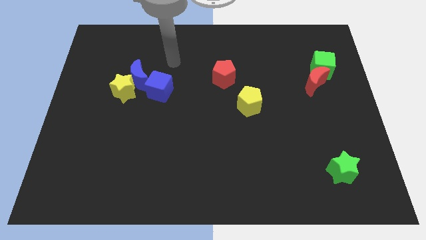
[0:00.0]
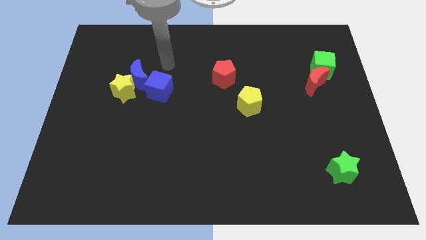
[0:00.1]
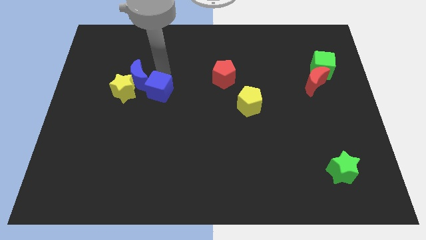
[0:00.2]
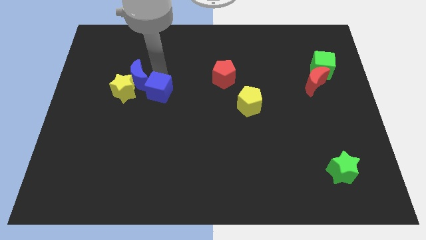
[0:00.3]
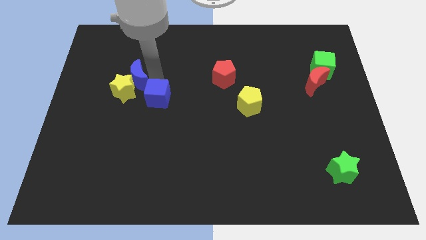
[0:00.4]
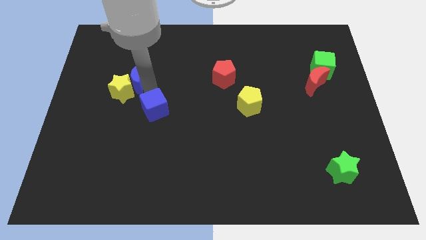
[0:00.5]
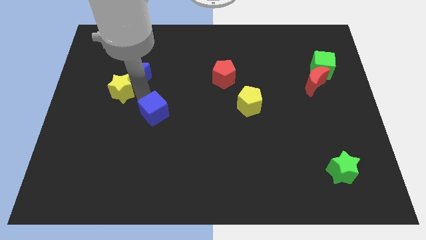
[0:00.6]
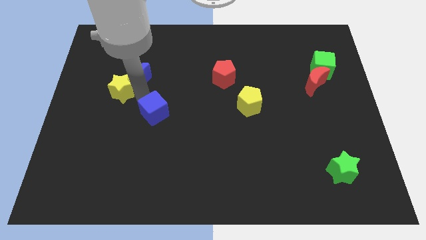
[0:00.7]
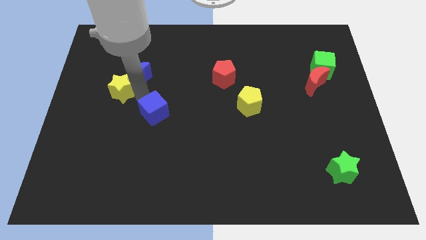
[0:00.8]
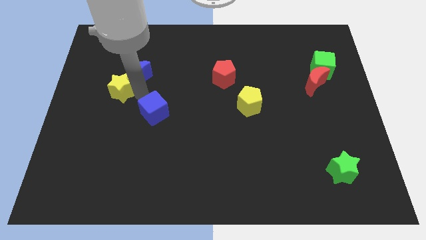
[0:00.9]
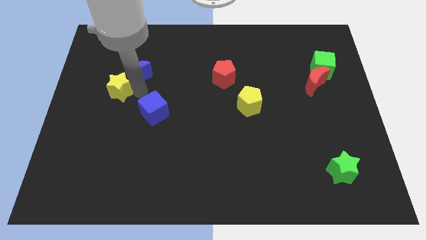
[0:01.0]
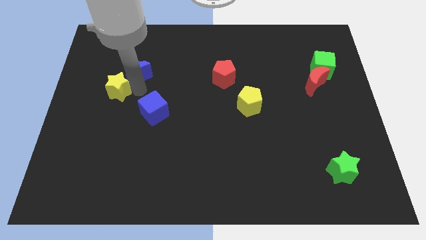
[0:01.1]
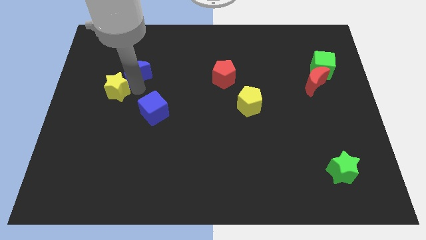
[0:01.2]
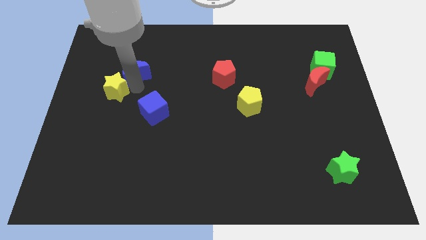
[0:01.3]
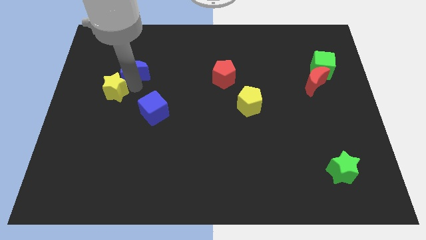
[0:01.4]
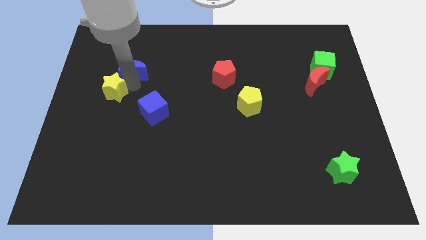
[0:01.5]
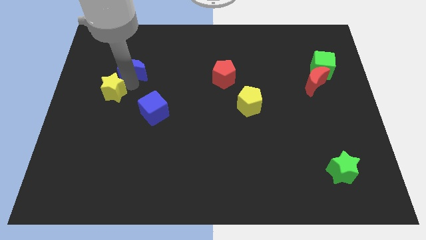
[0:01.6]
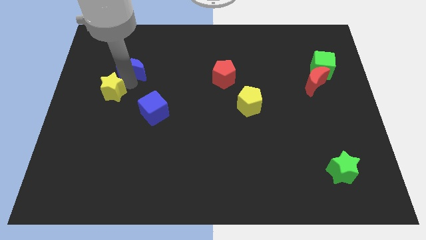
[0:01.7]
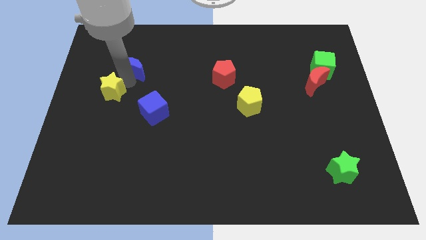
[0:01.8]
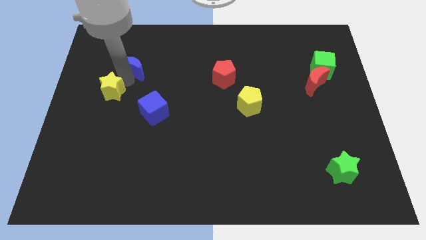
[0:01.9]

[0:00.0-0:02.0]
move the blue moon away from the yellow star and blue cube

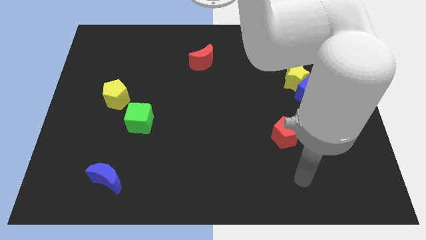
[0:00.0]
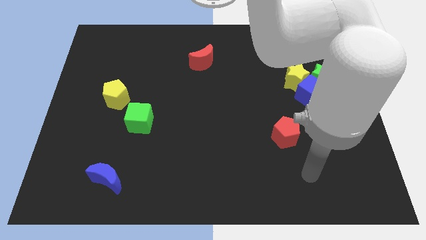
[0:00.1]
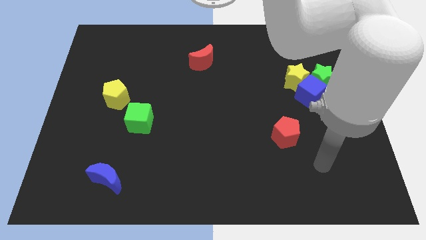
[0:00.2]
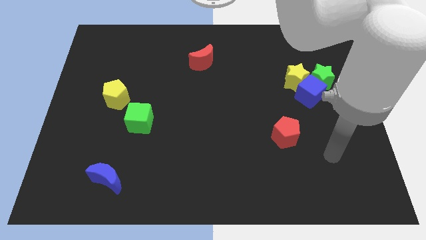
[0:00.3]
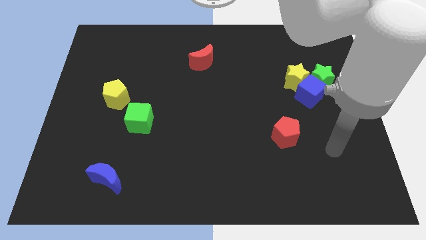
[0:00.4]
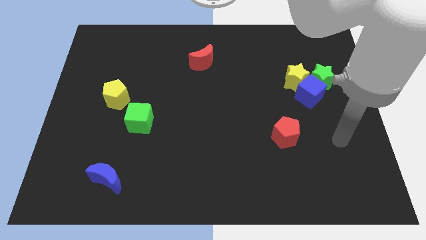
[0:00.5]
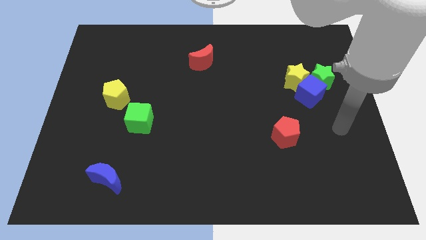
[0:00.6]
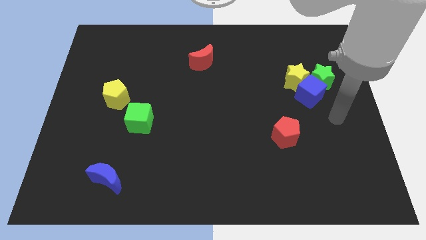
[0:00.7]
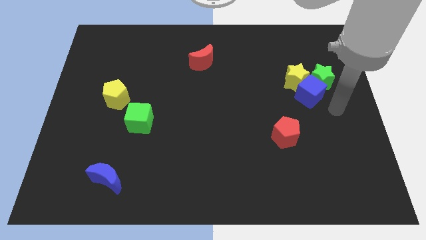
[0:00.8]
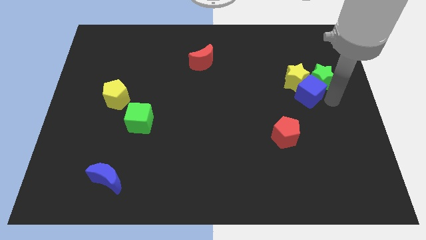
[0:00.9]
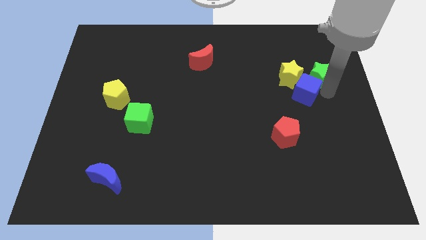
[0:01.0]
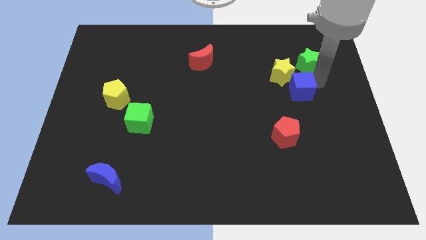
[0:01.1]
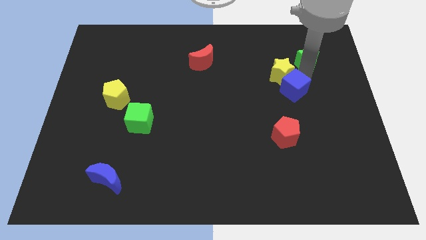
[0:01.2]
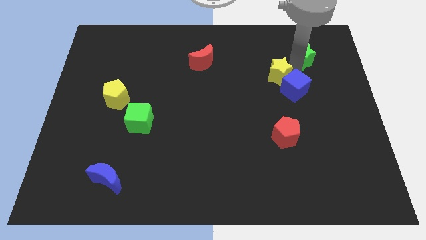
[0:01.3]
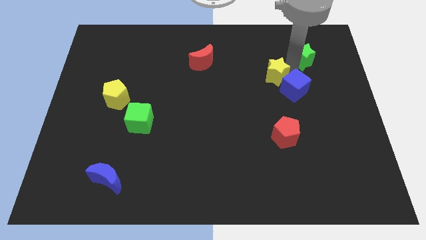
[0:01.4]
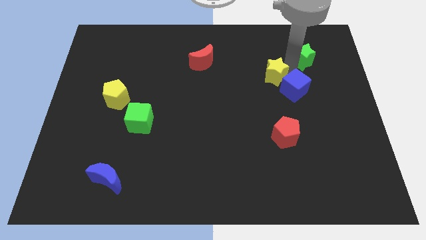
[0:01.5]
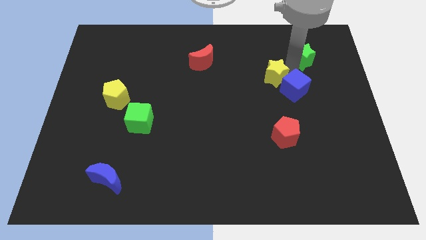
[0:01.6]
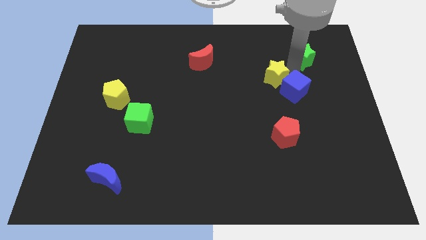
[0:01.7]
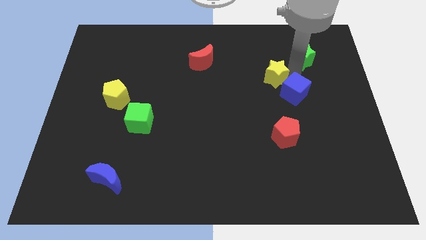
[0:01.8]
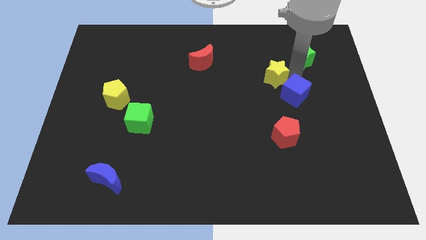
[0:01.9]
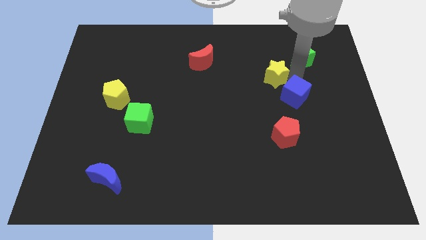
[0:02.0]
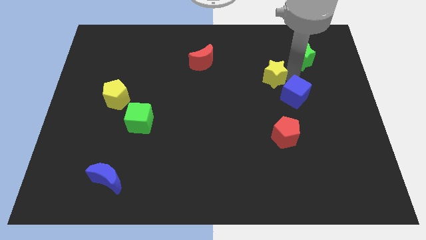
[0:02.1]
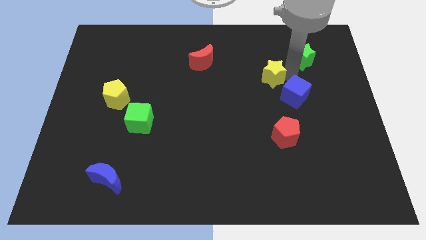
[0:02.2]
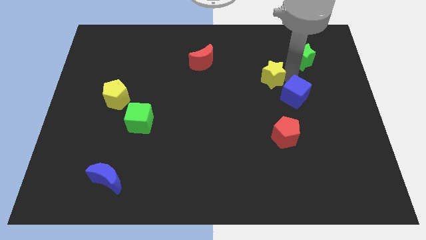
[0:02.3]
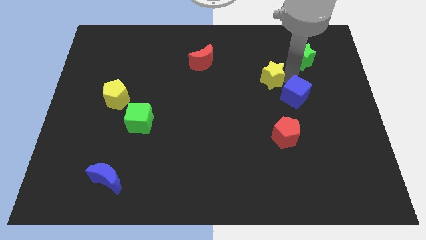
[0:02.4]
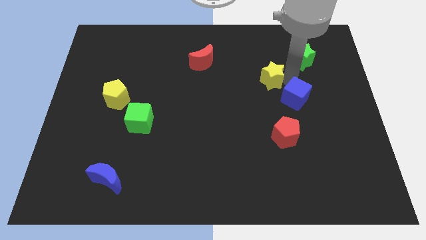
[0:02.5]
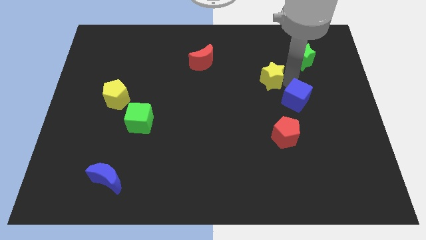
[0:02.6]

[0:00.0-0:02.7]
separate the blue cube from the green star and yellow star

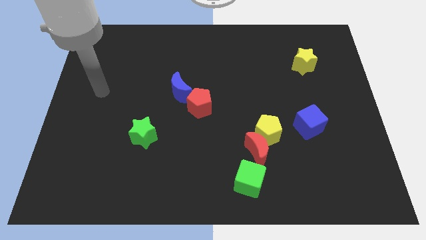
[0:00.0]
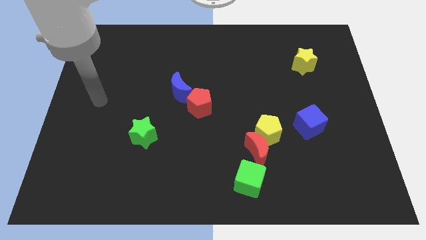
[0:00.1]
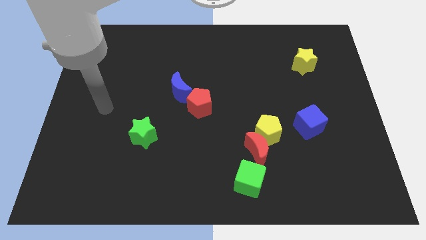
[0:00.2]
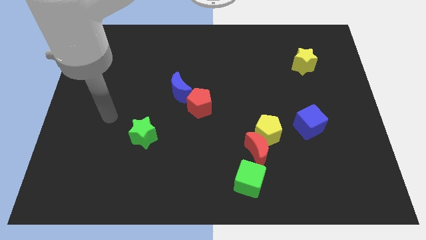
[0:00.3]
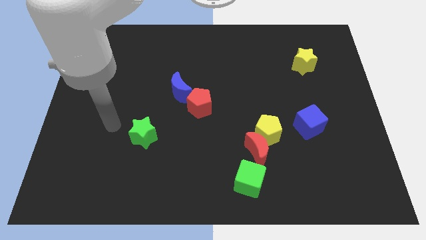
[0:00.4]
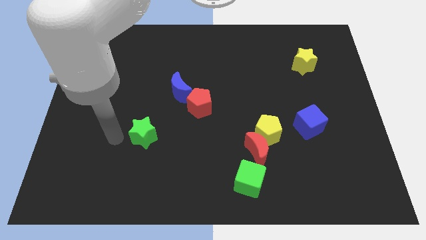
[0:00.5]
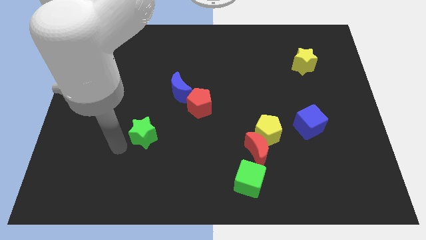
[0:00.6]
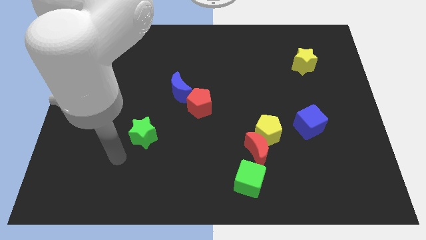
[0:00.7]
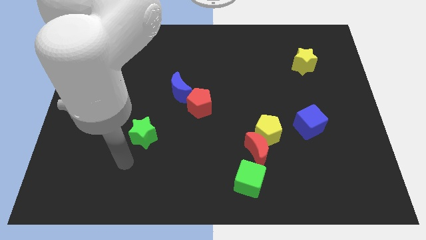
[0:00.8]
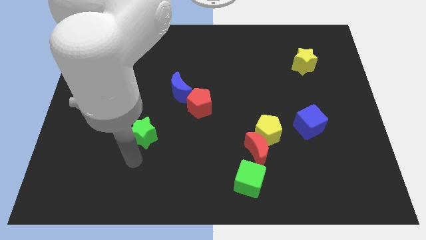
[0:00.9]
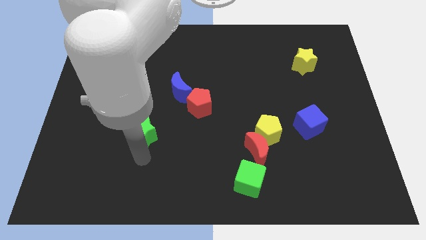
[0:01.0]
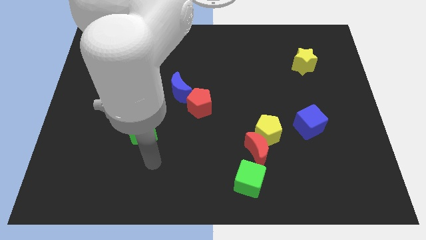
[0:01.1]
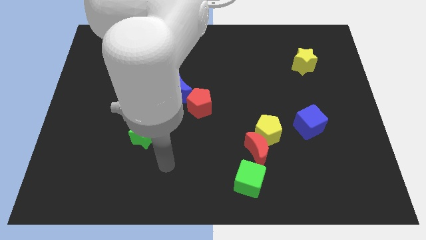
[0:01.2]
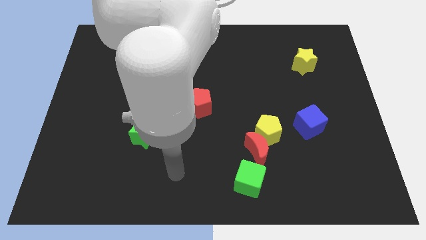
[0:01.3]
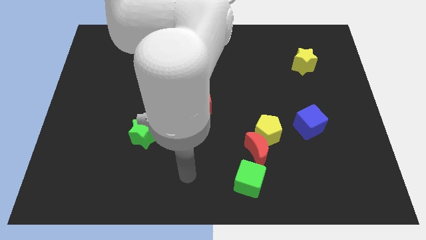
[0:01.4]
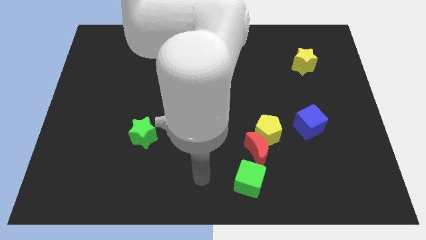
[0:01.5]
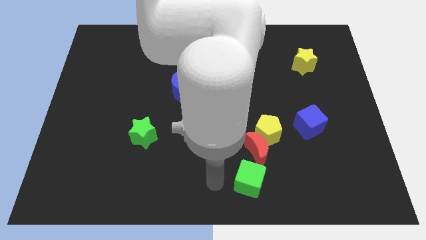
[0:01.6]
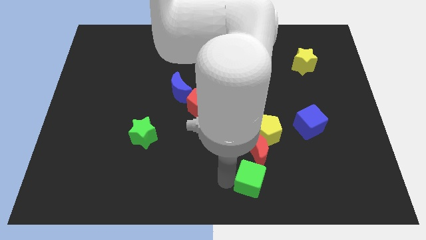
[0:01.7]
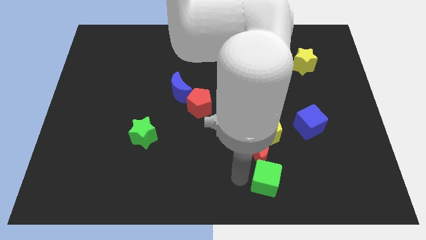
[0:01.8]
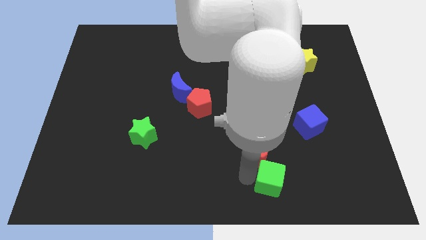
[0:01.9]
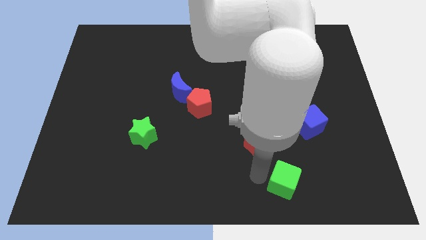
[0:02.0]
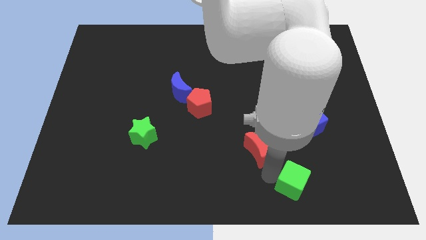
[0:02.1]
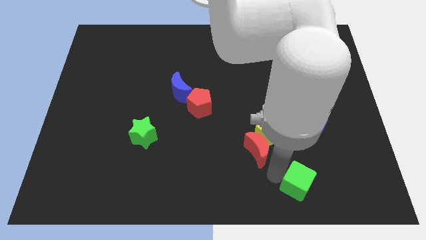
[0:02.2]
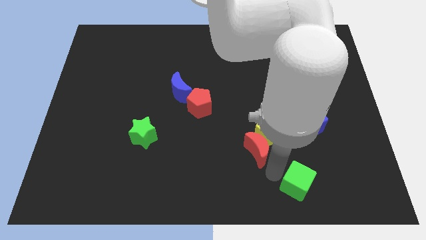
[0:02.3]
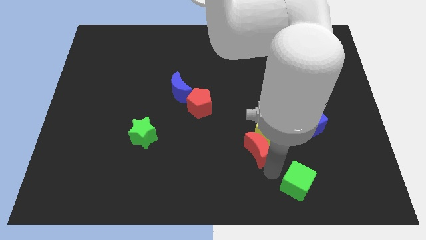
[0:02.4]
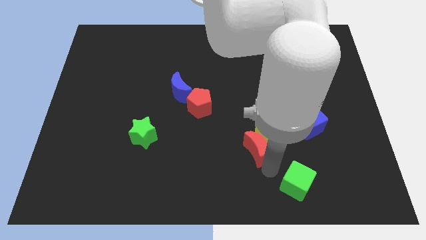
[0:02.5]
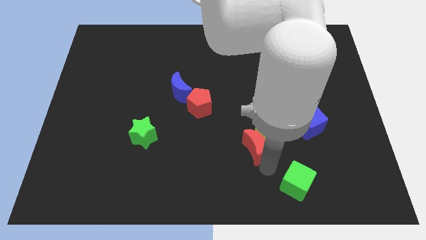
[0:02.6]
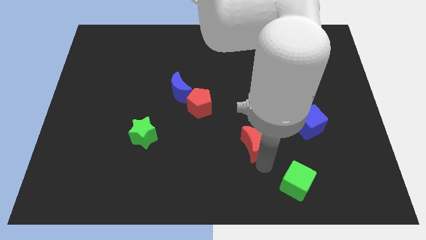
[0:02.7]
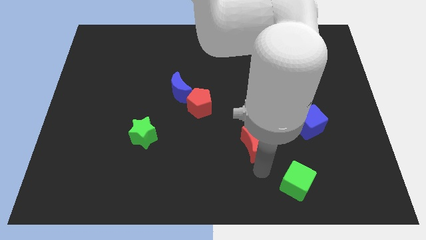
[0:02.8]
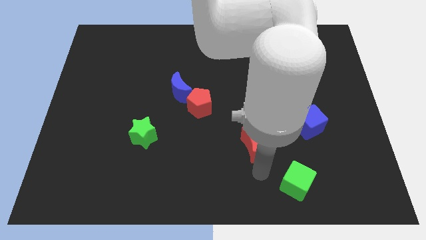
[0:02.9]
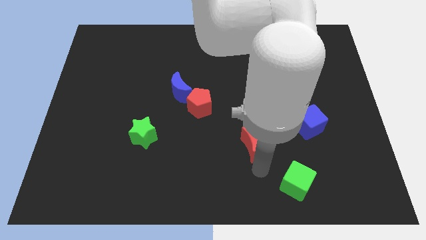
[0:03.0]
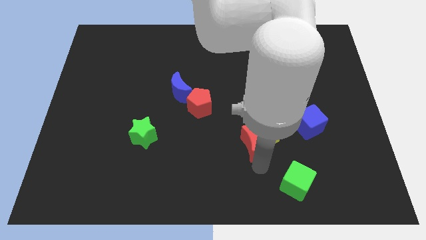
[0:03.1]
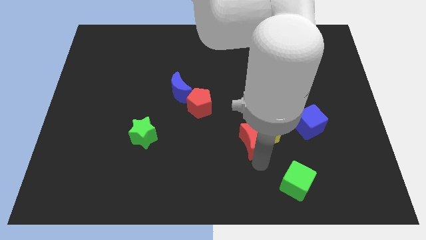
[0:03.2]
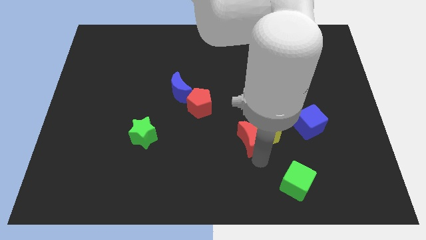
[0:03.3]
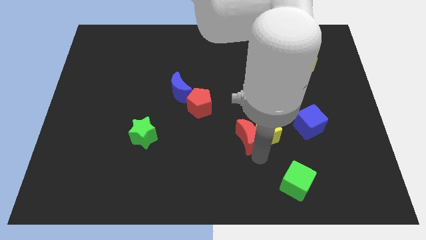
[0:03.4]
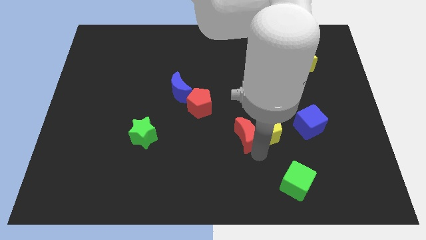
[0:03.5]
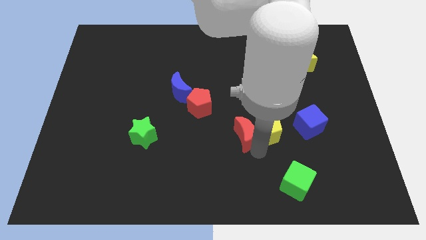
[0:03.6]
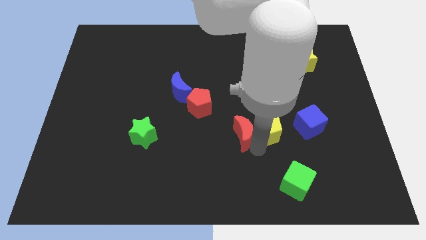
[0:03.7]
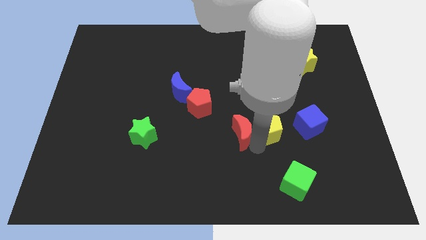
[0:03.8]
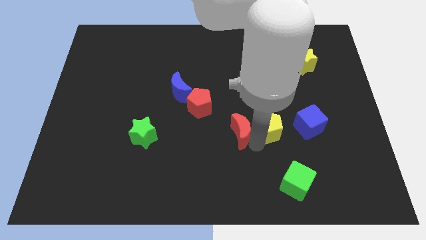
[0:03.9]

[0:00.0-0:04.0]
separate the red moon from the yellow pentagon and green cube

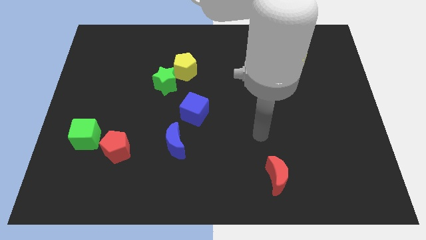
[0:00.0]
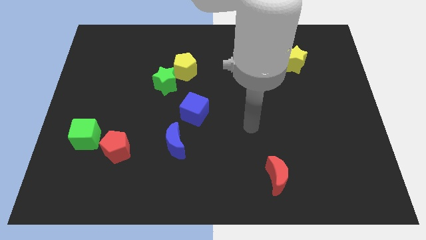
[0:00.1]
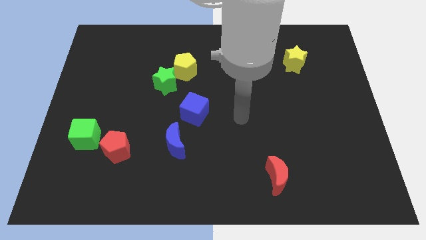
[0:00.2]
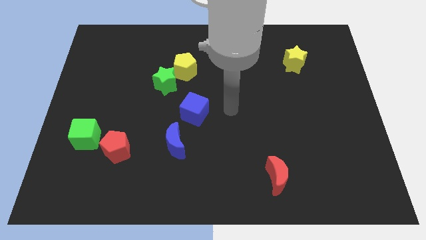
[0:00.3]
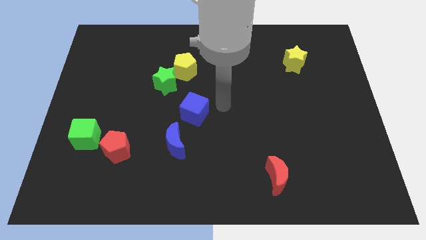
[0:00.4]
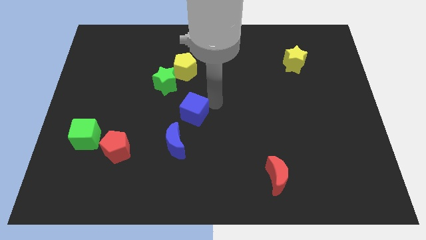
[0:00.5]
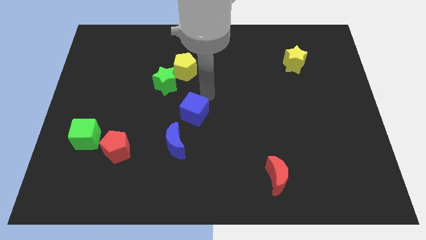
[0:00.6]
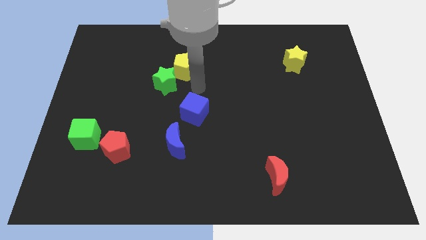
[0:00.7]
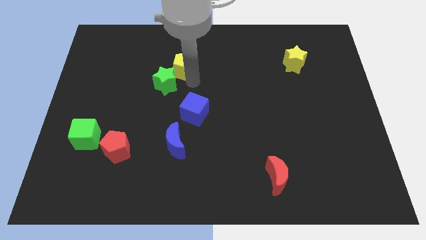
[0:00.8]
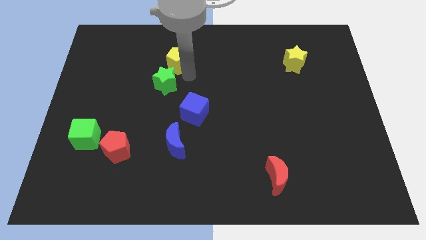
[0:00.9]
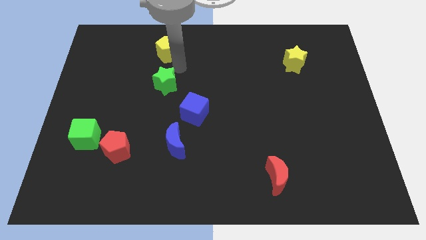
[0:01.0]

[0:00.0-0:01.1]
move the green star away from the yellow pentagon
